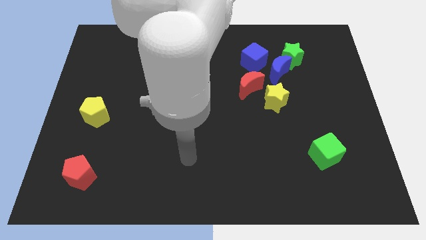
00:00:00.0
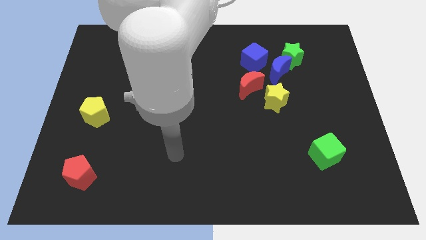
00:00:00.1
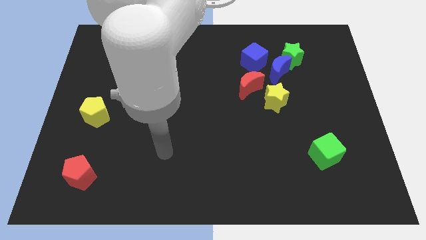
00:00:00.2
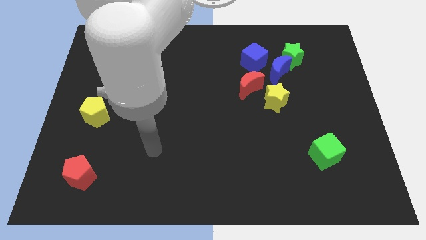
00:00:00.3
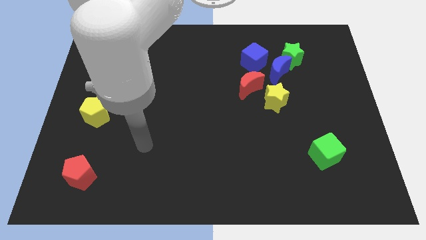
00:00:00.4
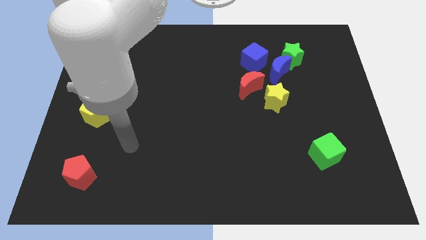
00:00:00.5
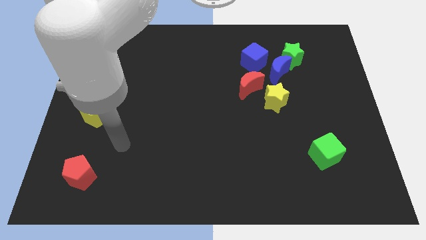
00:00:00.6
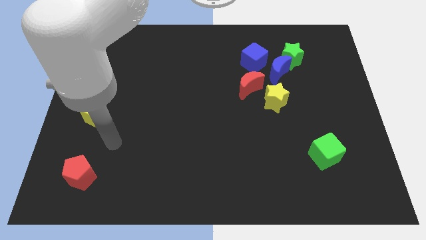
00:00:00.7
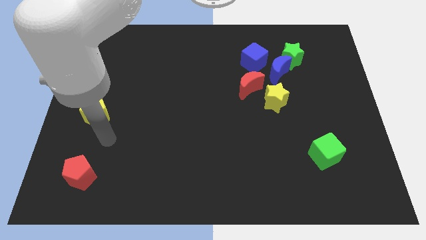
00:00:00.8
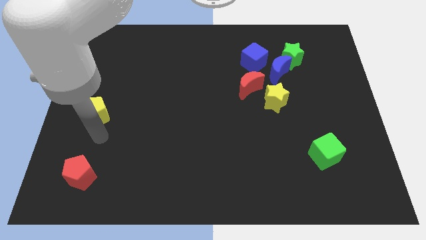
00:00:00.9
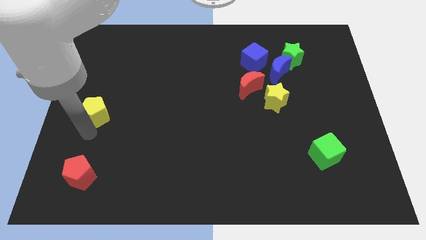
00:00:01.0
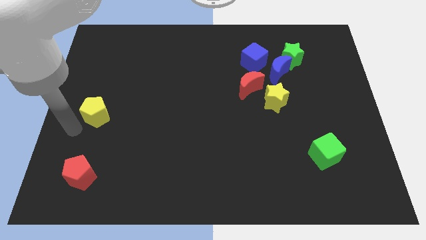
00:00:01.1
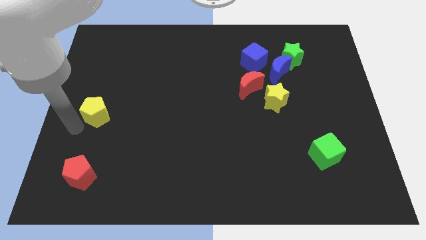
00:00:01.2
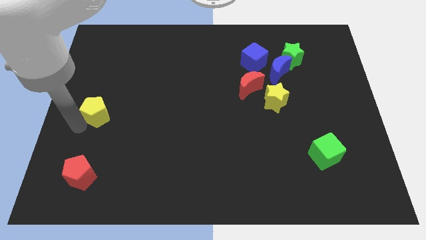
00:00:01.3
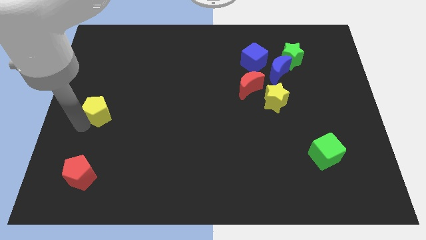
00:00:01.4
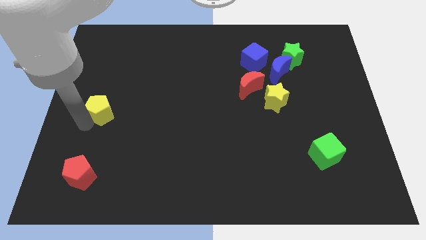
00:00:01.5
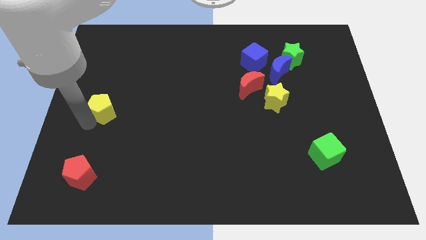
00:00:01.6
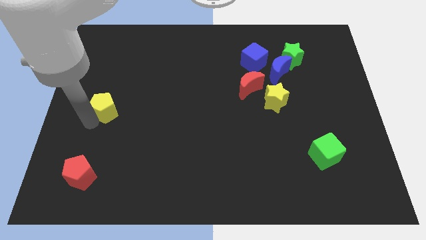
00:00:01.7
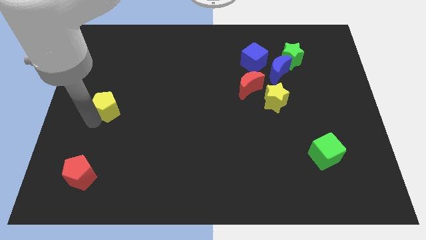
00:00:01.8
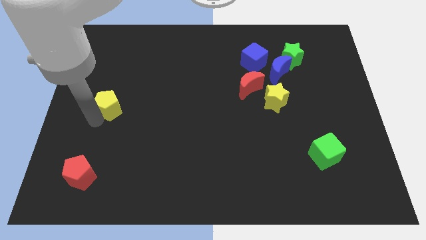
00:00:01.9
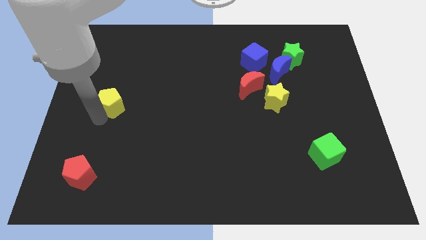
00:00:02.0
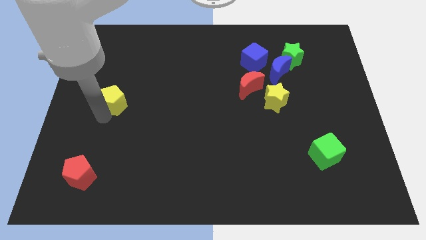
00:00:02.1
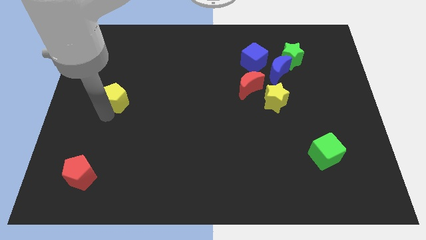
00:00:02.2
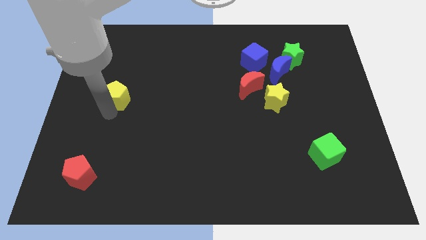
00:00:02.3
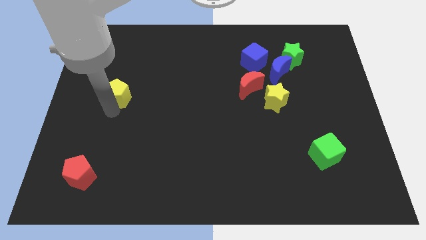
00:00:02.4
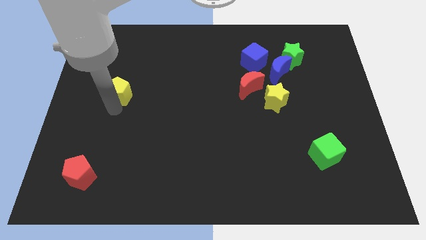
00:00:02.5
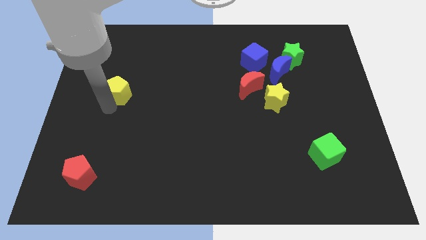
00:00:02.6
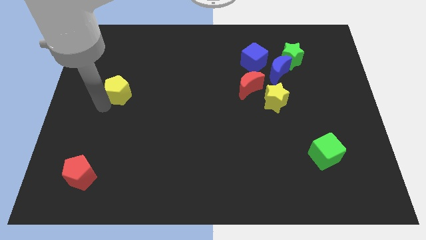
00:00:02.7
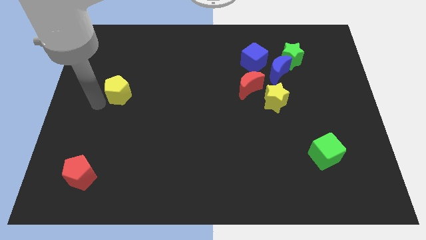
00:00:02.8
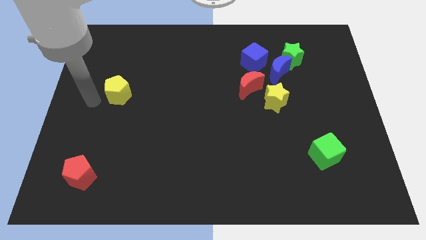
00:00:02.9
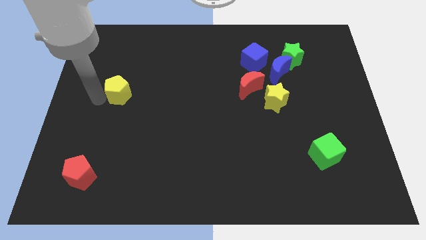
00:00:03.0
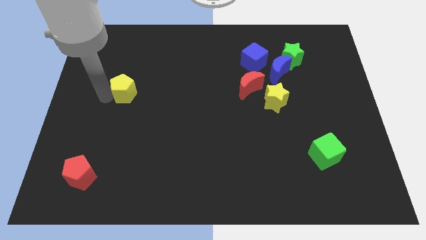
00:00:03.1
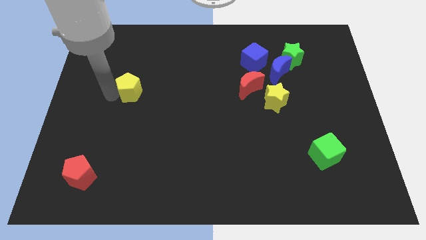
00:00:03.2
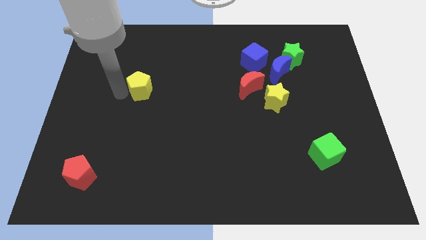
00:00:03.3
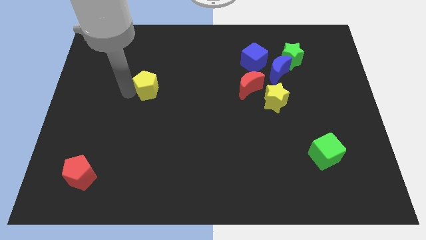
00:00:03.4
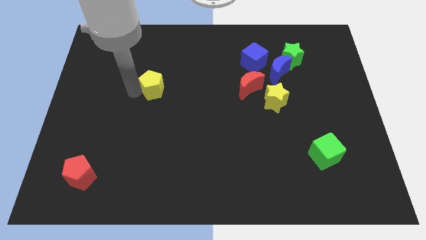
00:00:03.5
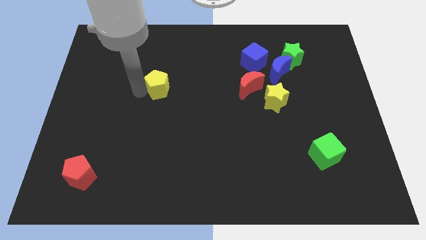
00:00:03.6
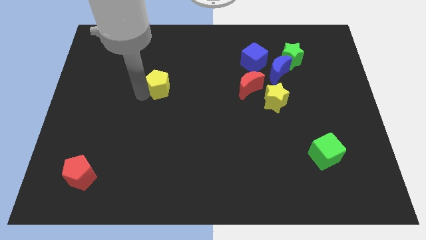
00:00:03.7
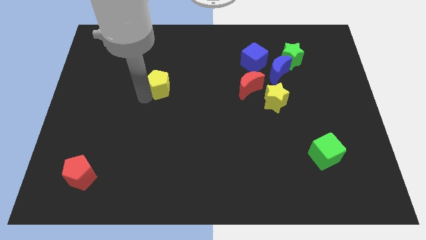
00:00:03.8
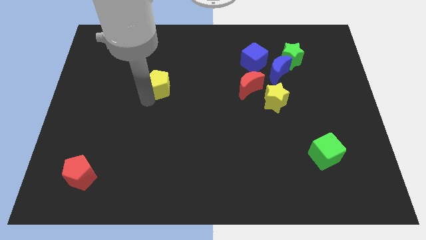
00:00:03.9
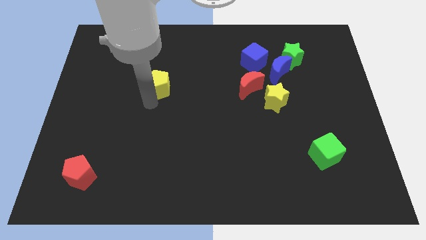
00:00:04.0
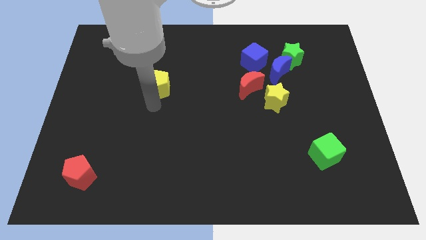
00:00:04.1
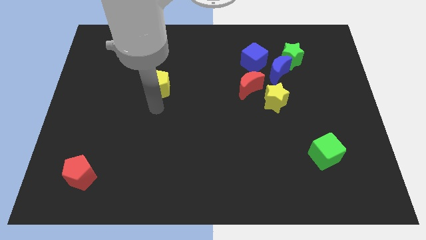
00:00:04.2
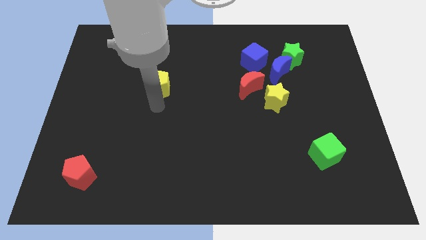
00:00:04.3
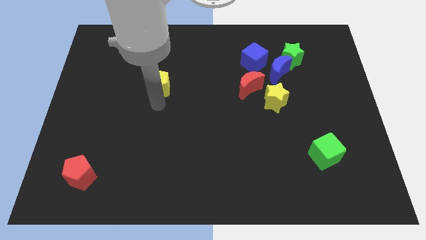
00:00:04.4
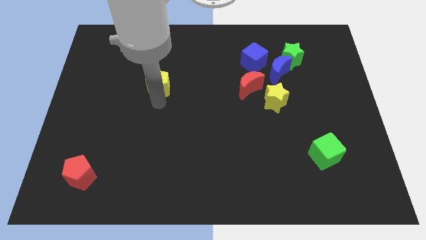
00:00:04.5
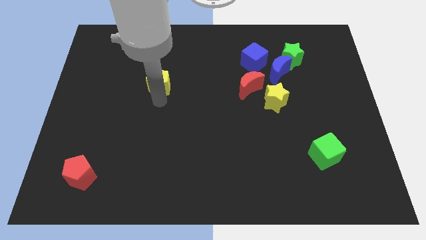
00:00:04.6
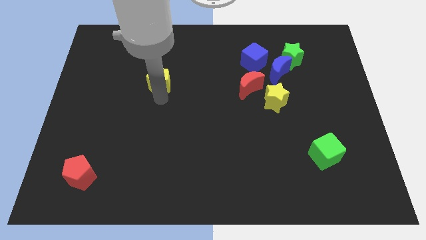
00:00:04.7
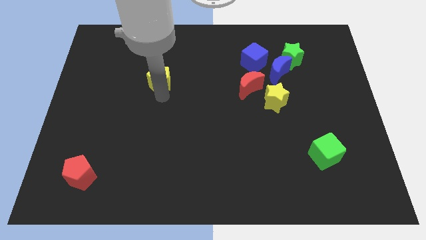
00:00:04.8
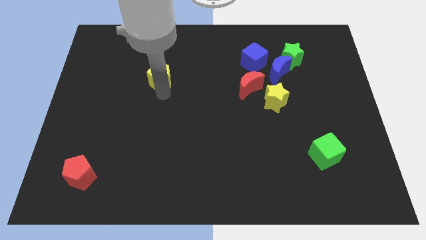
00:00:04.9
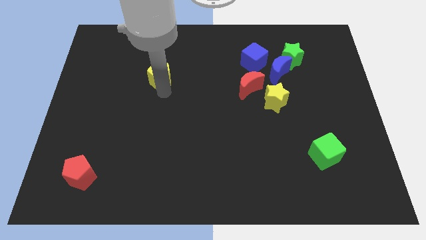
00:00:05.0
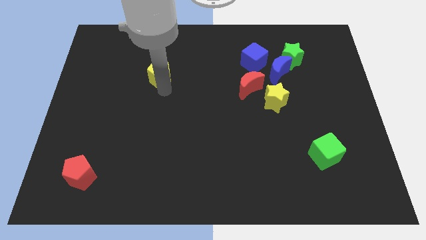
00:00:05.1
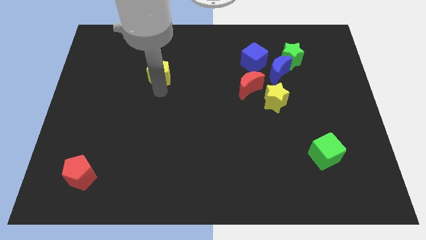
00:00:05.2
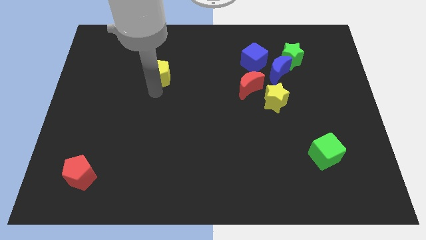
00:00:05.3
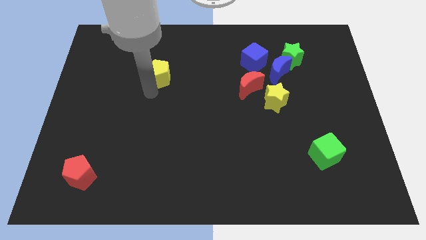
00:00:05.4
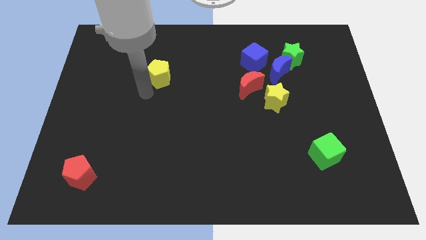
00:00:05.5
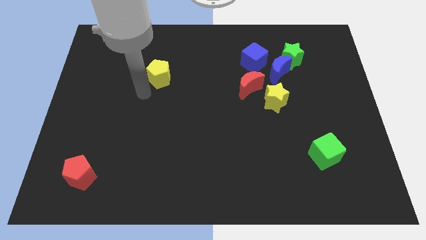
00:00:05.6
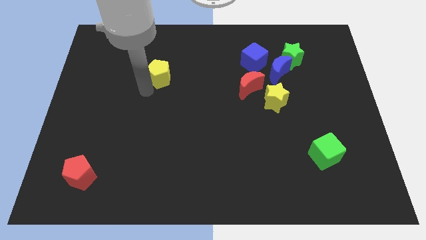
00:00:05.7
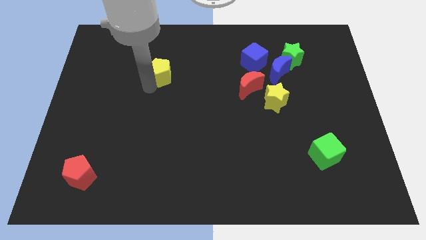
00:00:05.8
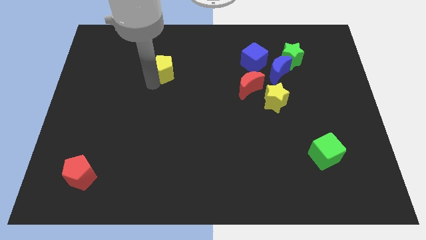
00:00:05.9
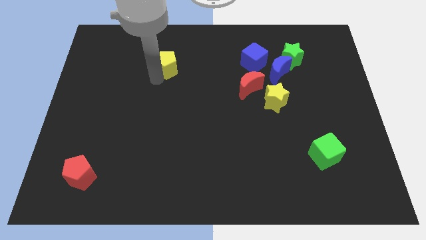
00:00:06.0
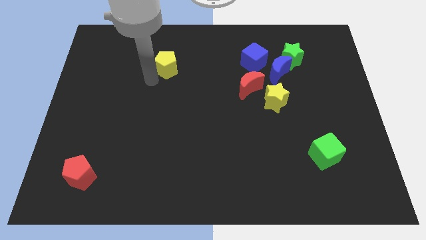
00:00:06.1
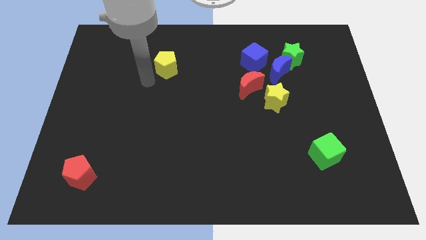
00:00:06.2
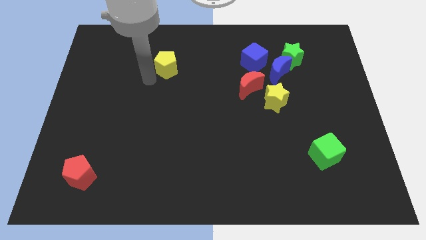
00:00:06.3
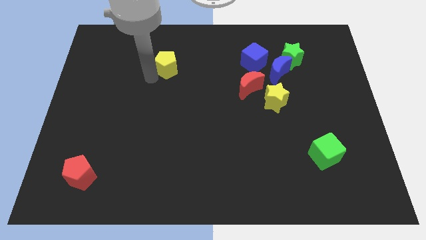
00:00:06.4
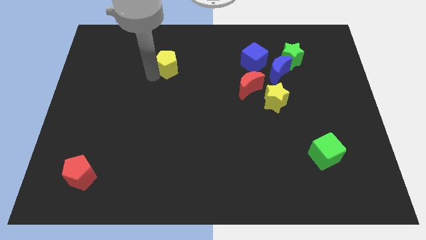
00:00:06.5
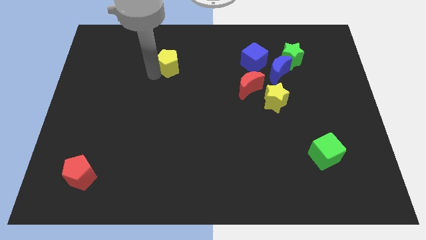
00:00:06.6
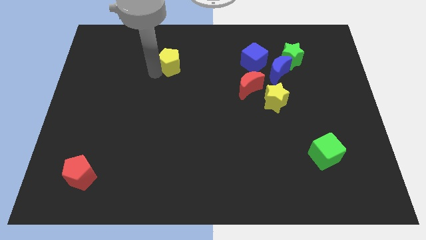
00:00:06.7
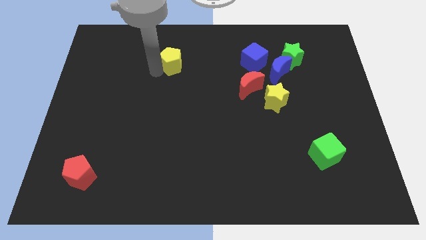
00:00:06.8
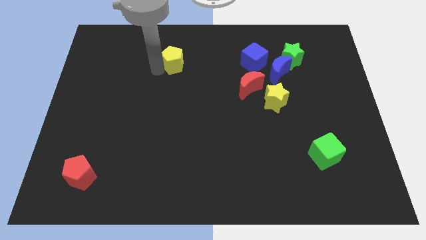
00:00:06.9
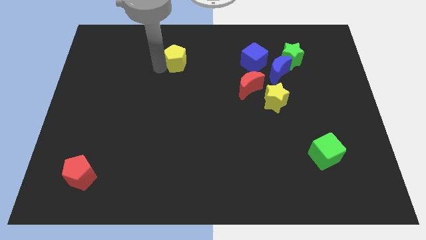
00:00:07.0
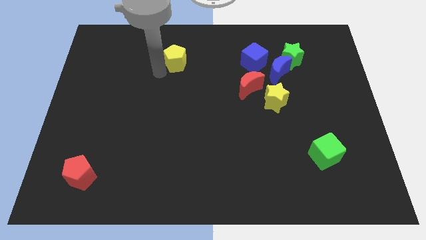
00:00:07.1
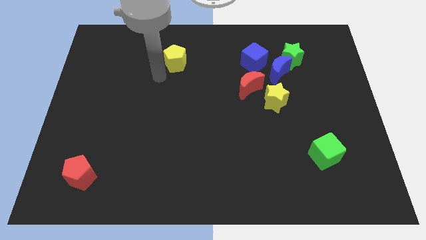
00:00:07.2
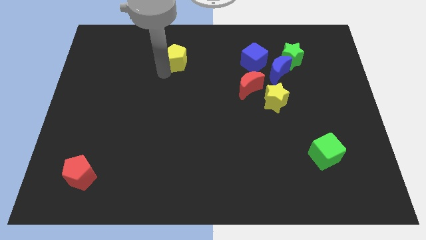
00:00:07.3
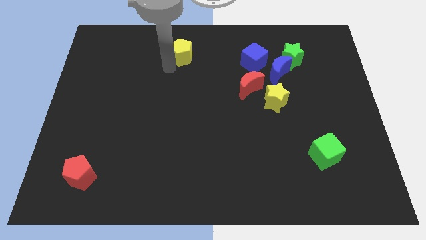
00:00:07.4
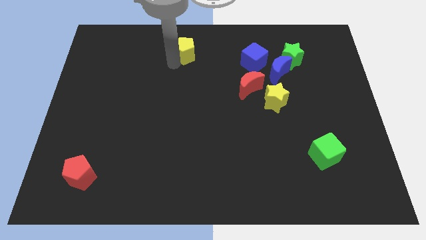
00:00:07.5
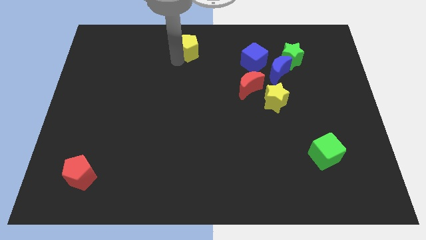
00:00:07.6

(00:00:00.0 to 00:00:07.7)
slide the yellow pentagon to the towards your base
